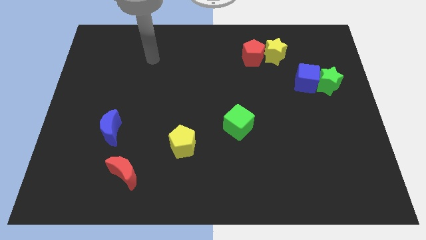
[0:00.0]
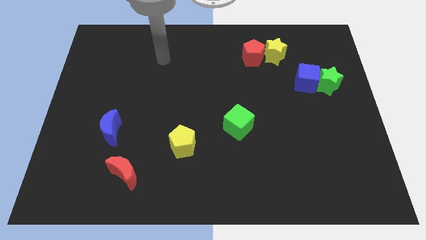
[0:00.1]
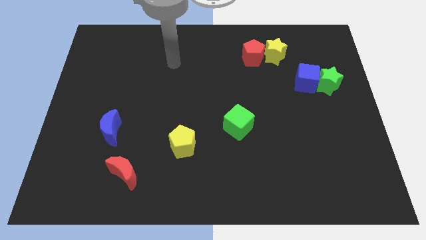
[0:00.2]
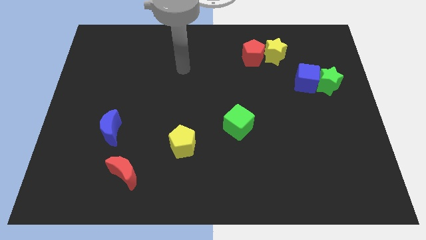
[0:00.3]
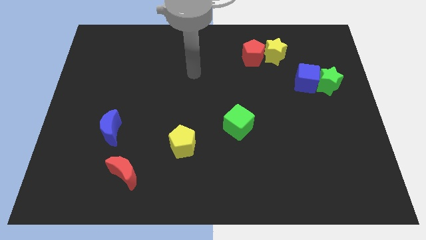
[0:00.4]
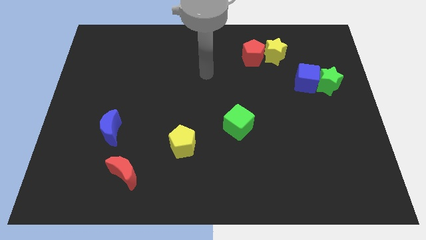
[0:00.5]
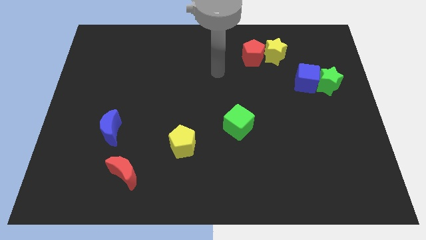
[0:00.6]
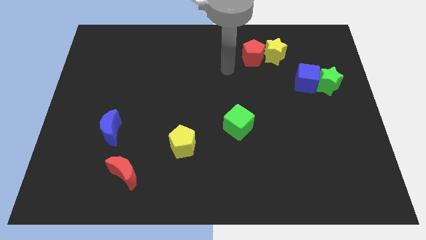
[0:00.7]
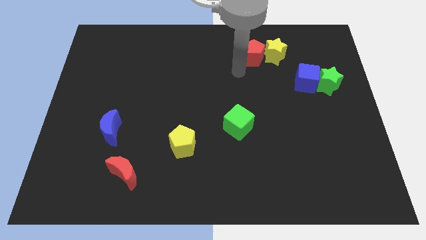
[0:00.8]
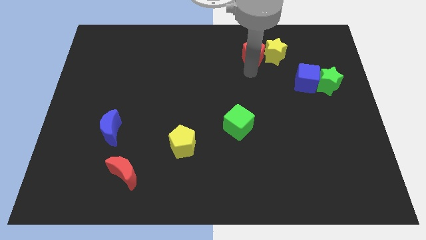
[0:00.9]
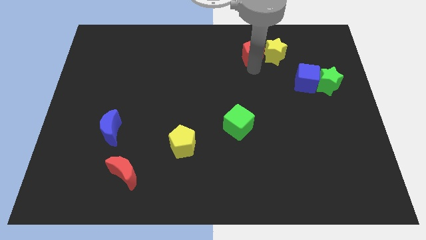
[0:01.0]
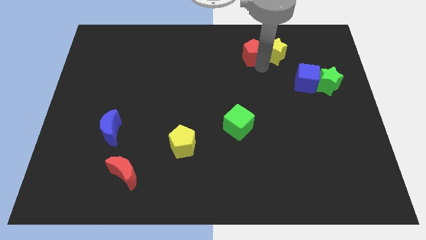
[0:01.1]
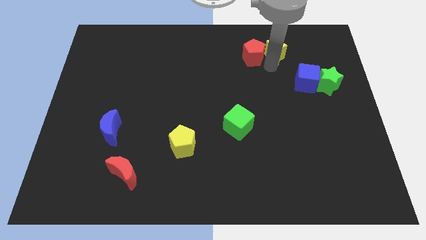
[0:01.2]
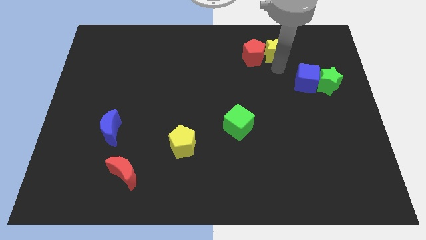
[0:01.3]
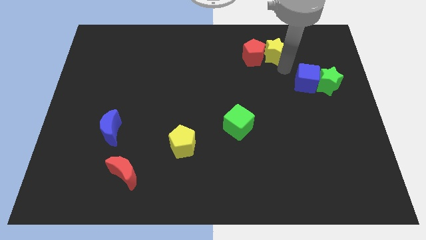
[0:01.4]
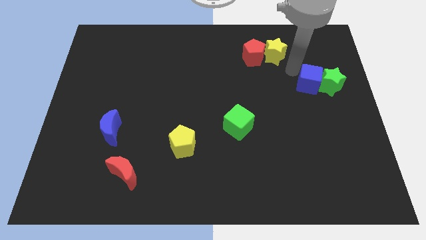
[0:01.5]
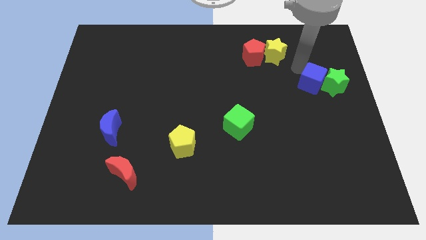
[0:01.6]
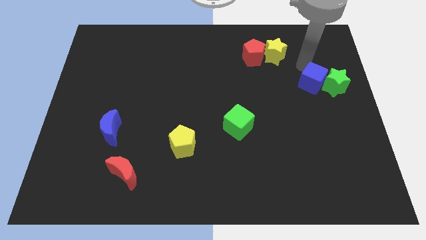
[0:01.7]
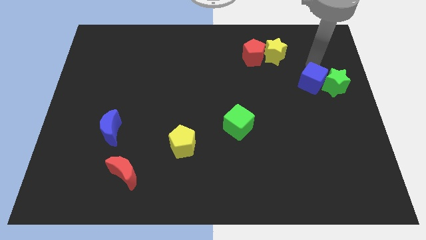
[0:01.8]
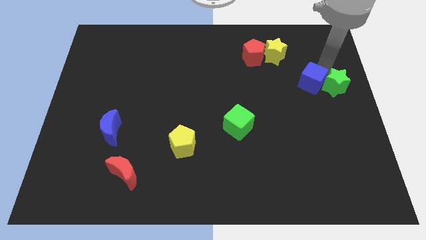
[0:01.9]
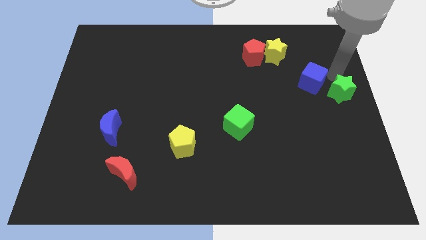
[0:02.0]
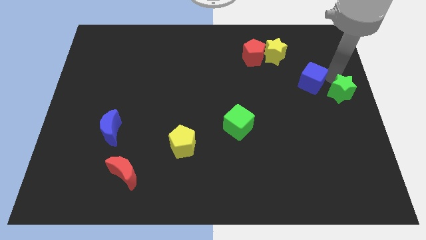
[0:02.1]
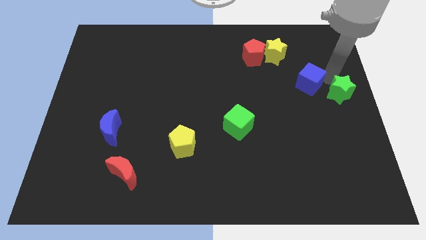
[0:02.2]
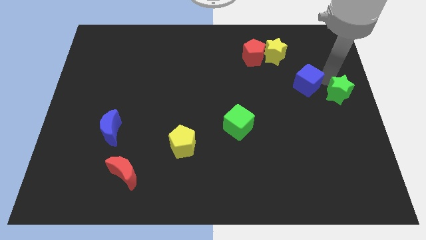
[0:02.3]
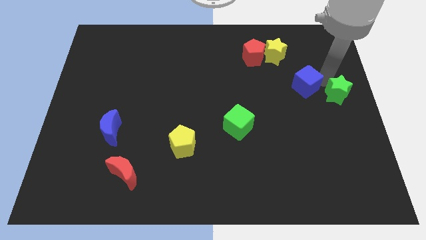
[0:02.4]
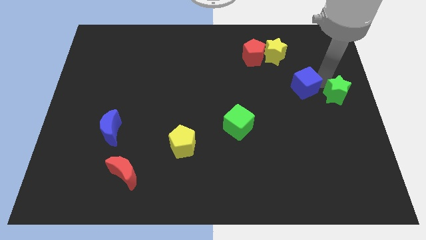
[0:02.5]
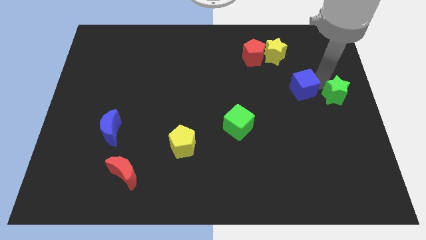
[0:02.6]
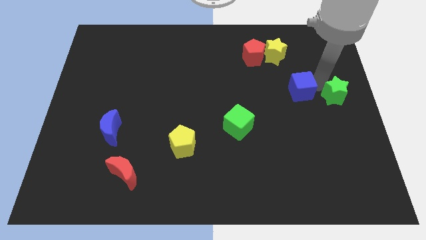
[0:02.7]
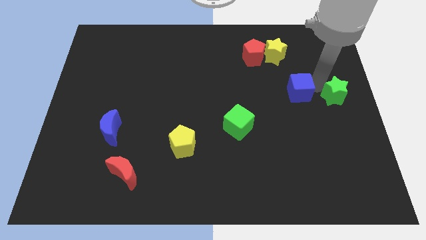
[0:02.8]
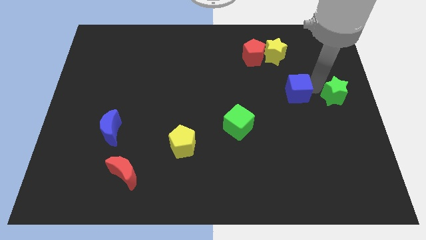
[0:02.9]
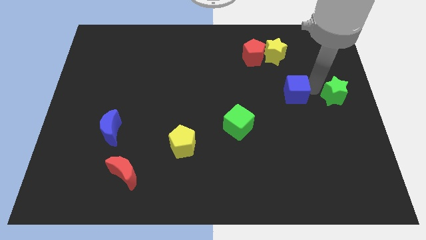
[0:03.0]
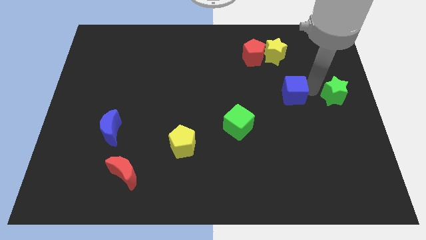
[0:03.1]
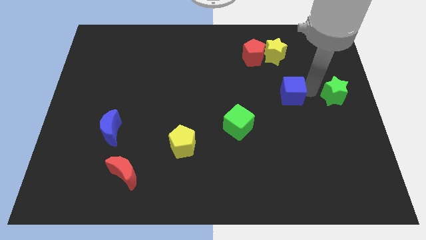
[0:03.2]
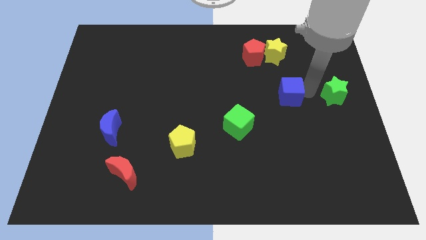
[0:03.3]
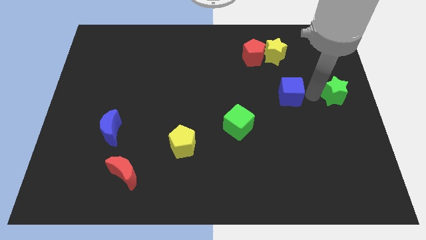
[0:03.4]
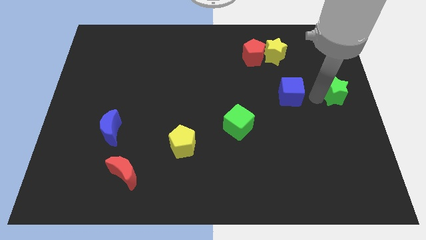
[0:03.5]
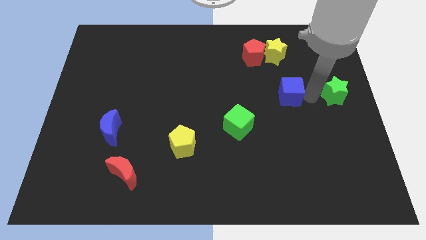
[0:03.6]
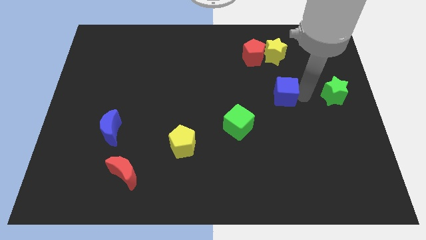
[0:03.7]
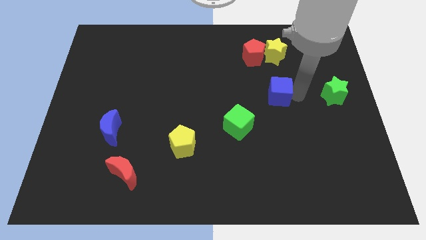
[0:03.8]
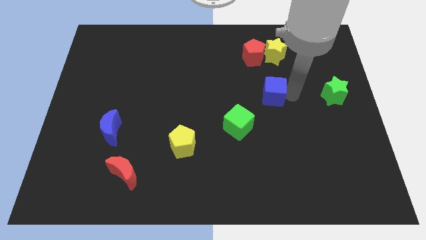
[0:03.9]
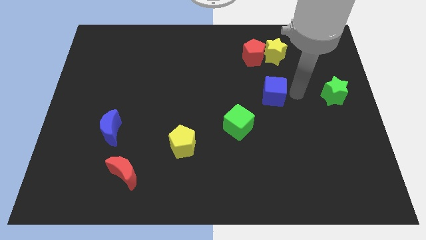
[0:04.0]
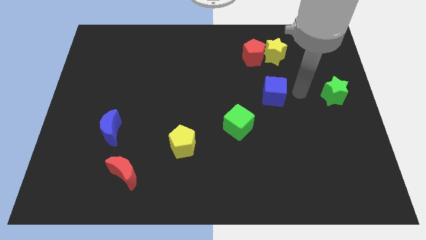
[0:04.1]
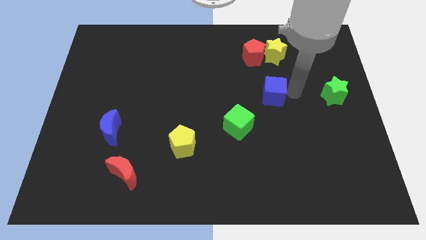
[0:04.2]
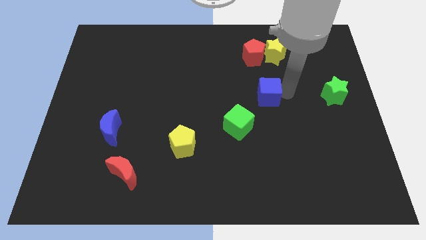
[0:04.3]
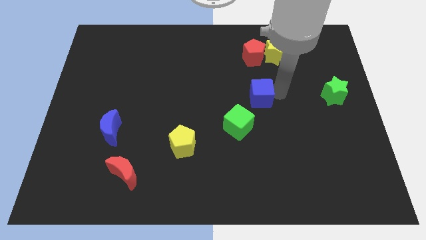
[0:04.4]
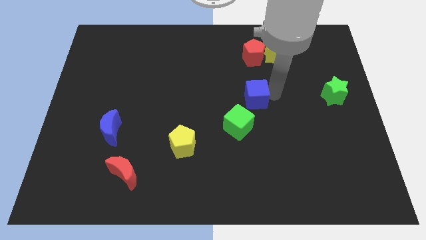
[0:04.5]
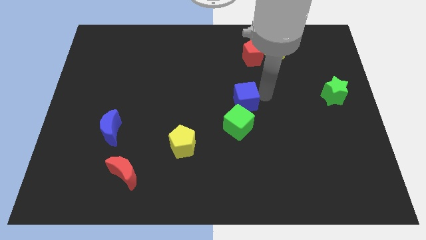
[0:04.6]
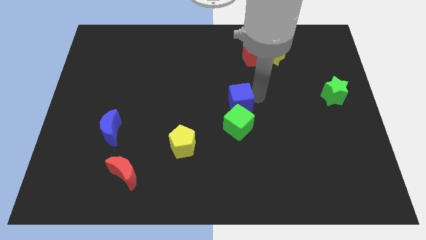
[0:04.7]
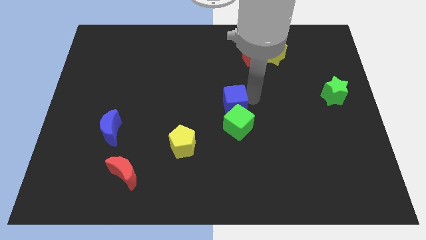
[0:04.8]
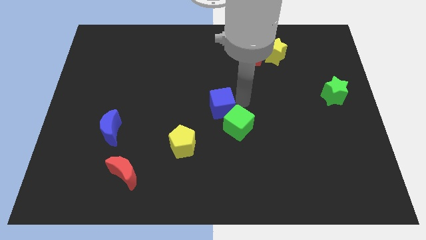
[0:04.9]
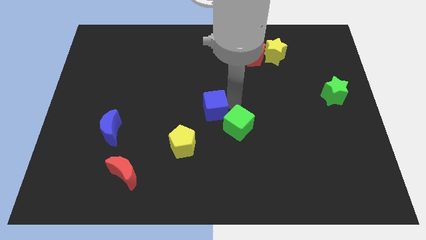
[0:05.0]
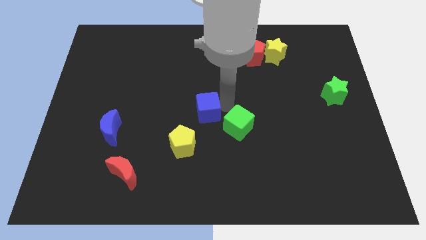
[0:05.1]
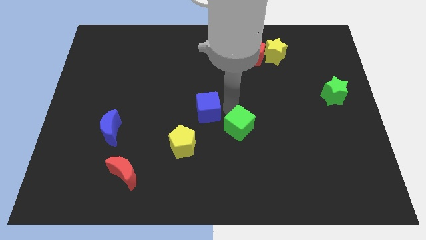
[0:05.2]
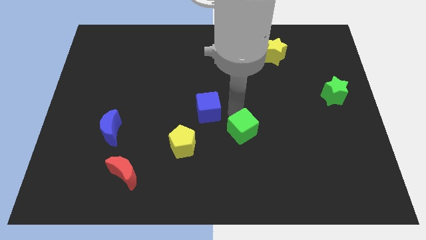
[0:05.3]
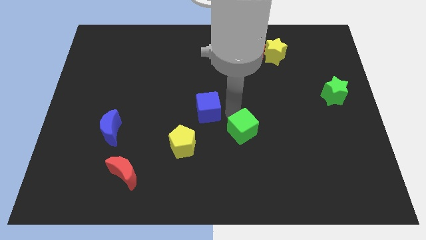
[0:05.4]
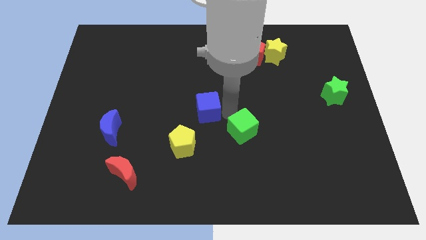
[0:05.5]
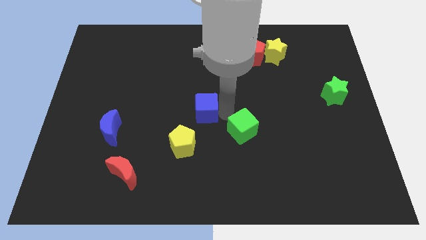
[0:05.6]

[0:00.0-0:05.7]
push the blue cube to the top of the yellow pentagon

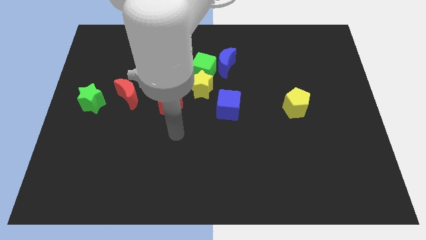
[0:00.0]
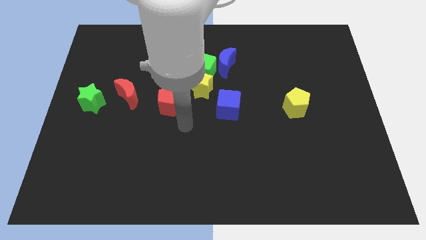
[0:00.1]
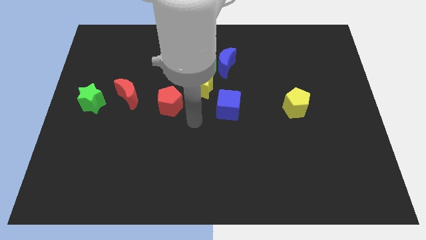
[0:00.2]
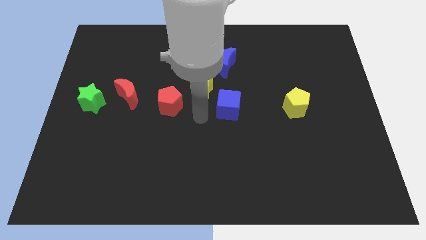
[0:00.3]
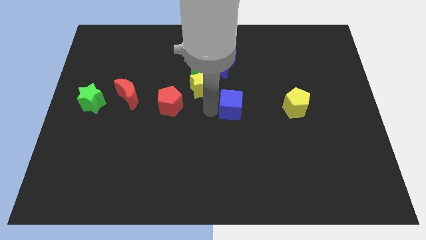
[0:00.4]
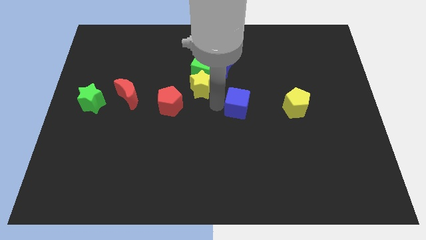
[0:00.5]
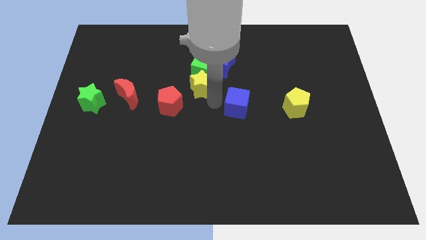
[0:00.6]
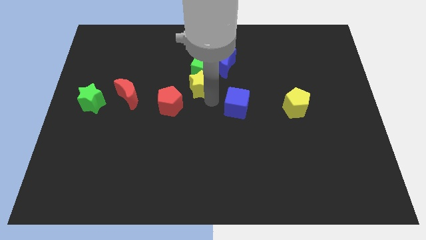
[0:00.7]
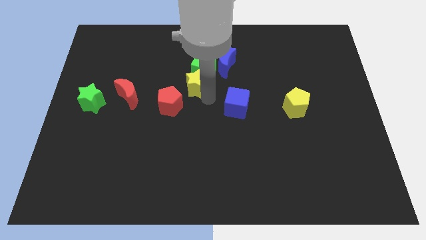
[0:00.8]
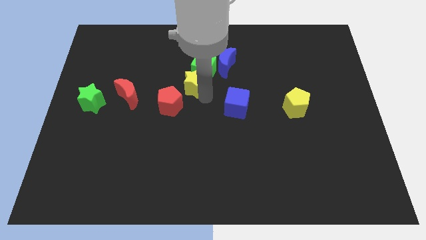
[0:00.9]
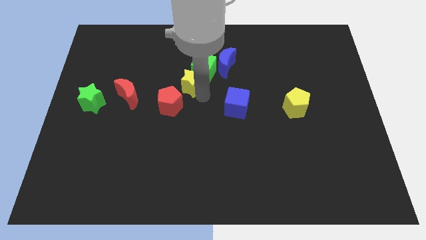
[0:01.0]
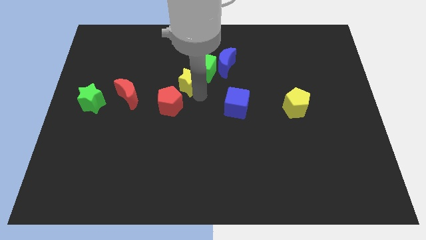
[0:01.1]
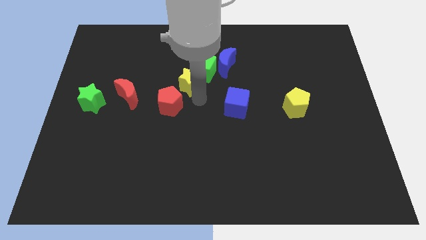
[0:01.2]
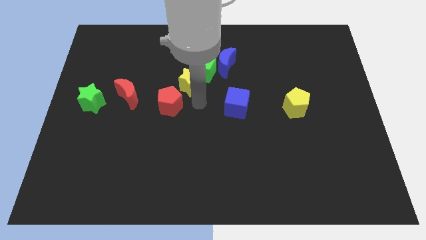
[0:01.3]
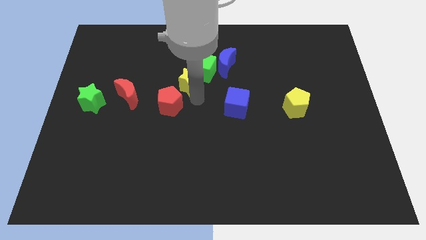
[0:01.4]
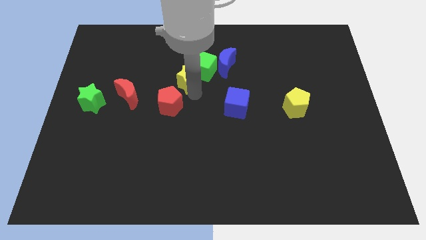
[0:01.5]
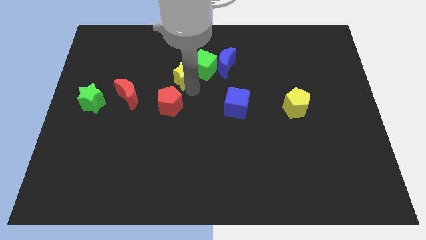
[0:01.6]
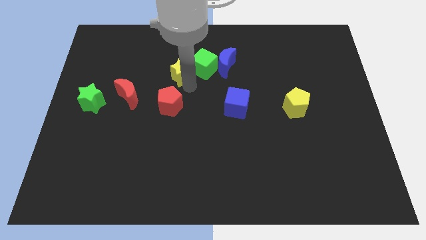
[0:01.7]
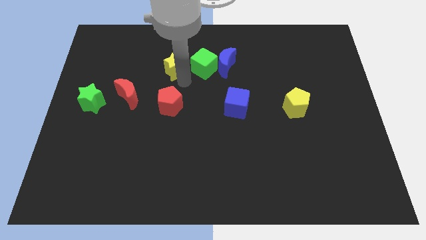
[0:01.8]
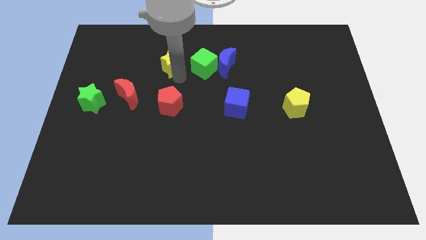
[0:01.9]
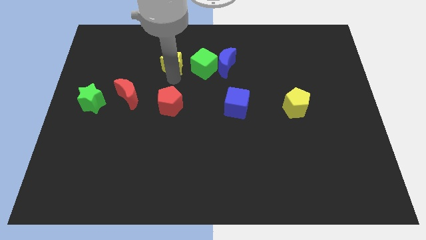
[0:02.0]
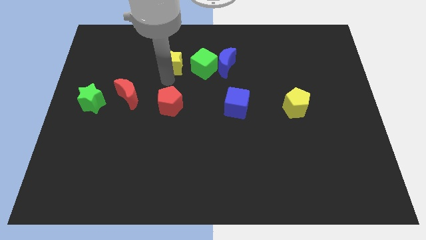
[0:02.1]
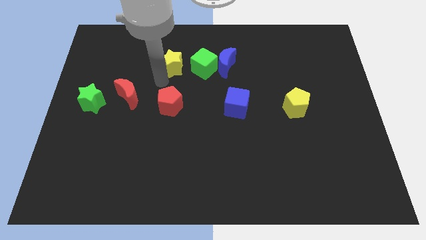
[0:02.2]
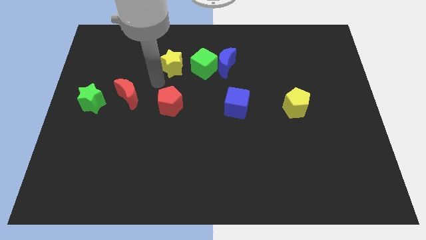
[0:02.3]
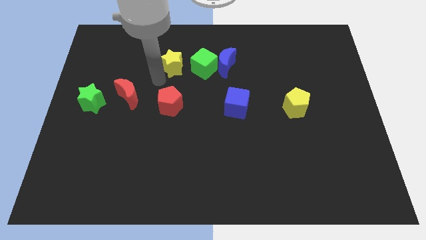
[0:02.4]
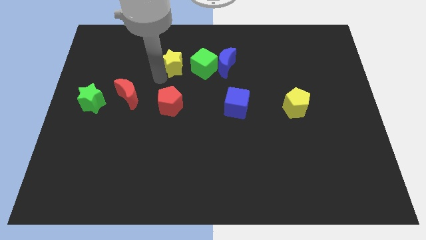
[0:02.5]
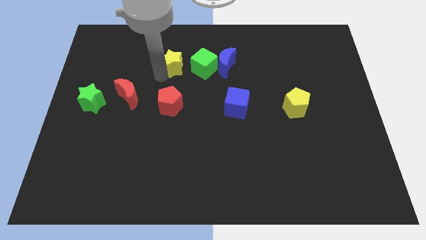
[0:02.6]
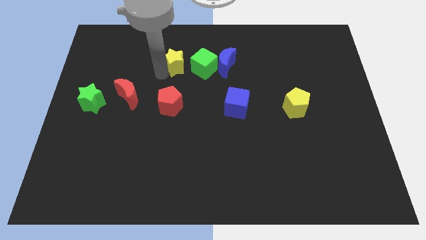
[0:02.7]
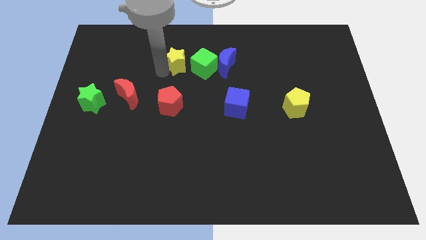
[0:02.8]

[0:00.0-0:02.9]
push the yellow star to the top left side of the green cube
